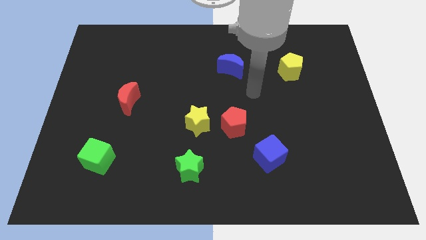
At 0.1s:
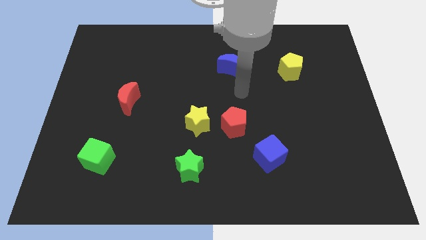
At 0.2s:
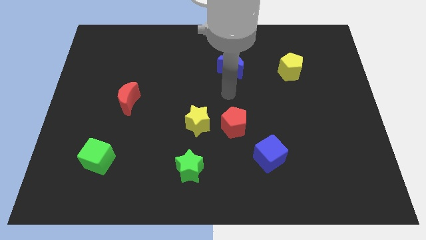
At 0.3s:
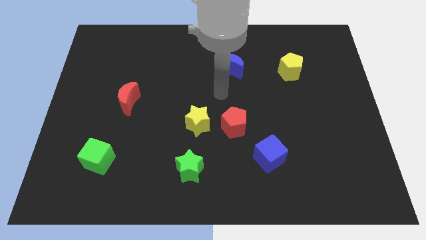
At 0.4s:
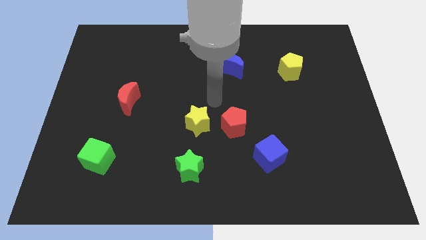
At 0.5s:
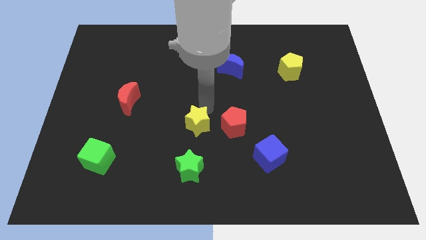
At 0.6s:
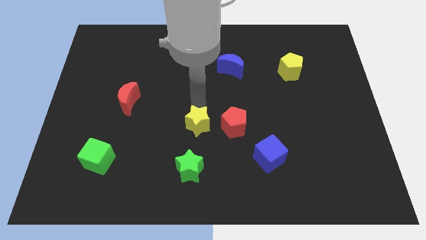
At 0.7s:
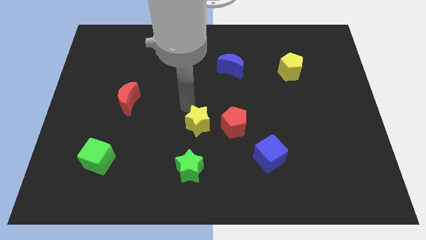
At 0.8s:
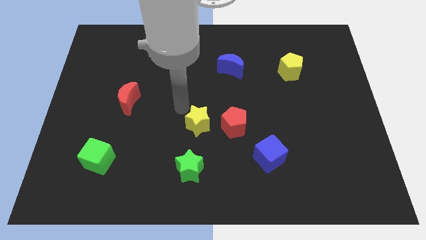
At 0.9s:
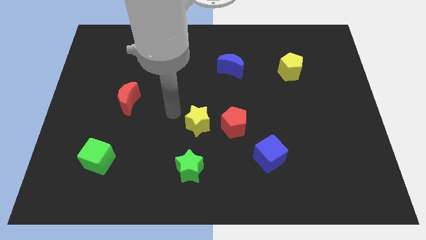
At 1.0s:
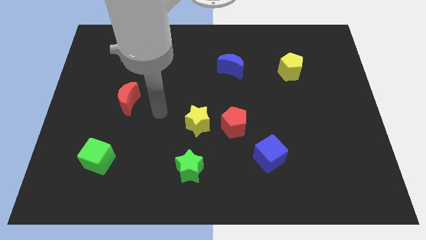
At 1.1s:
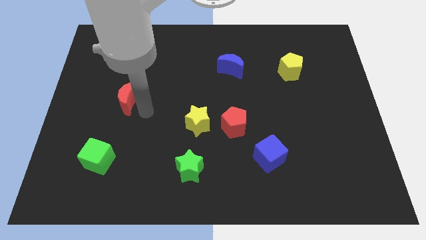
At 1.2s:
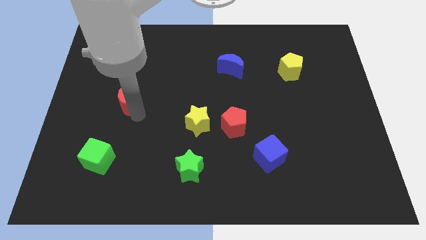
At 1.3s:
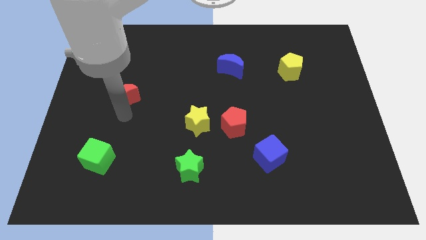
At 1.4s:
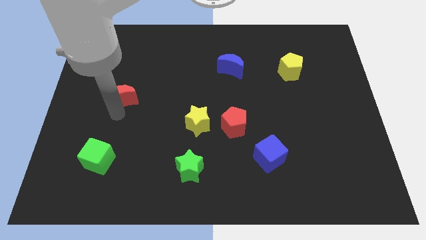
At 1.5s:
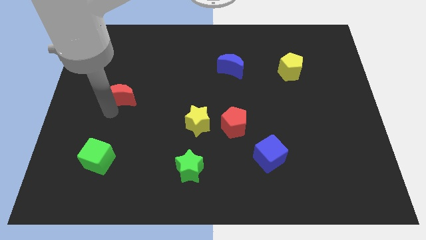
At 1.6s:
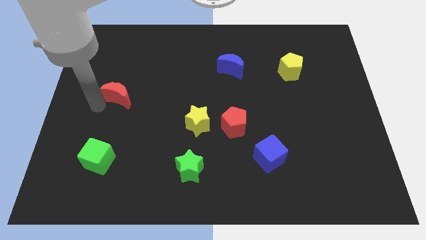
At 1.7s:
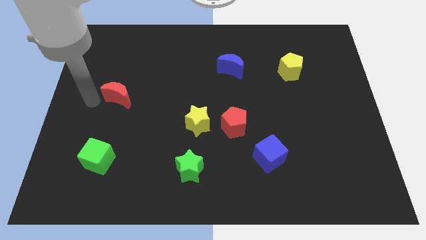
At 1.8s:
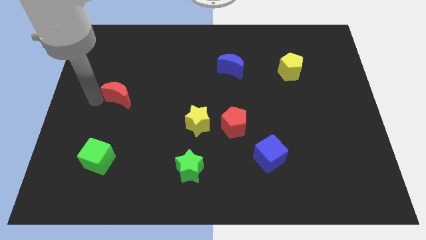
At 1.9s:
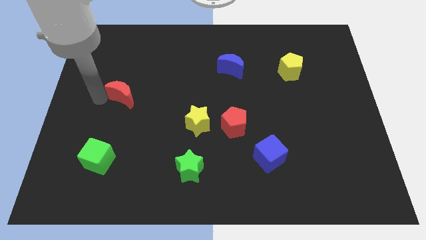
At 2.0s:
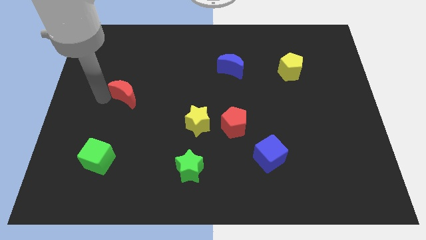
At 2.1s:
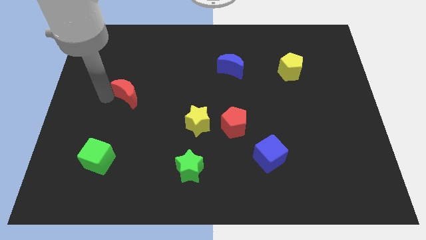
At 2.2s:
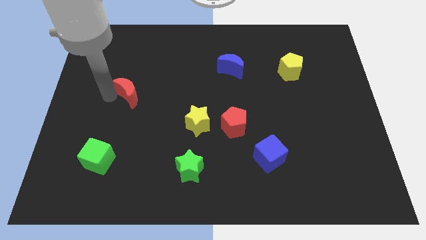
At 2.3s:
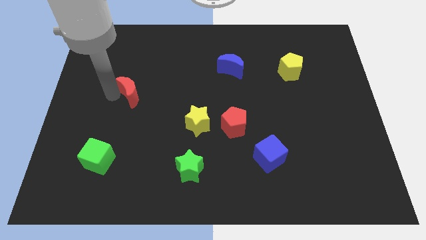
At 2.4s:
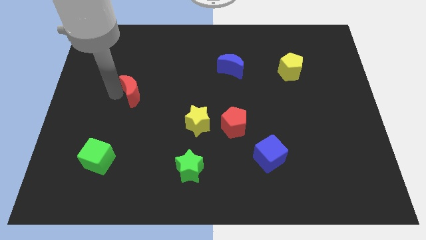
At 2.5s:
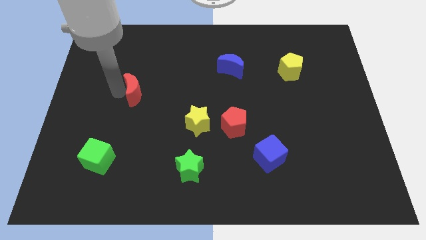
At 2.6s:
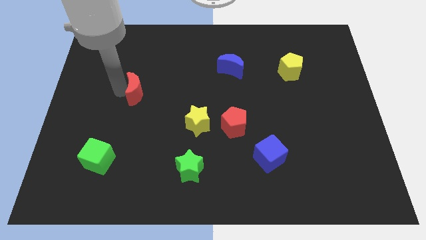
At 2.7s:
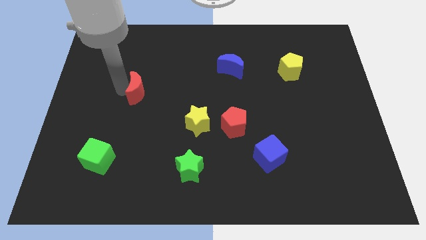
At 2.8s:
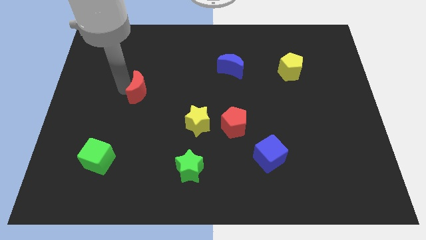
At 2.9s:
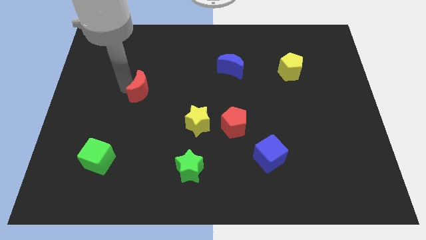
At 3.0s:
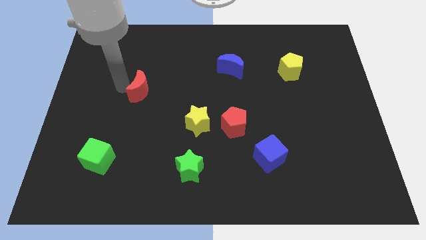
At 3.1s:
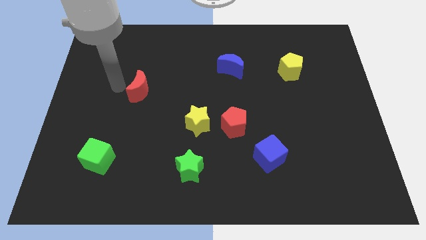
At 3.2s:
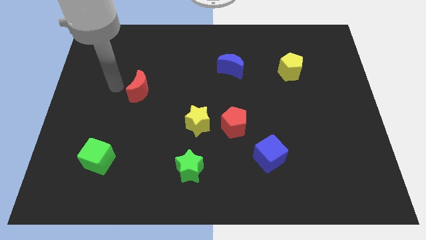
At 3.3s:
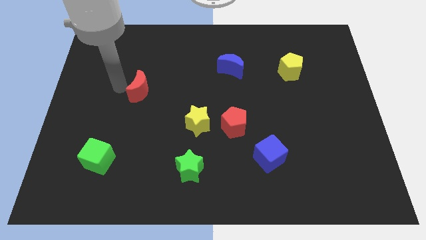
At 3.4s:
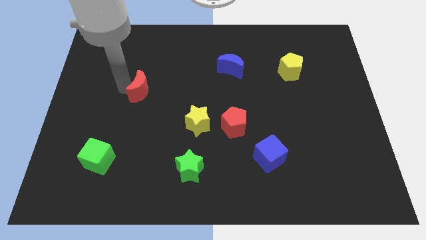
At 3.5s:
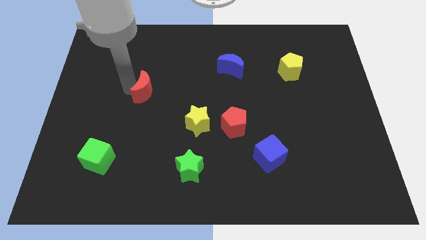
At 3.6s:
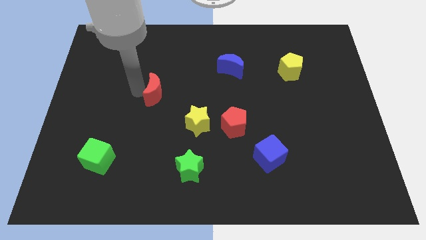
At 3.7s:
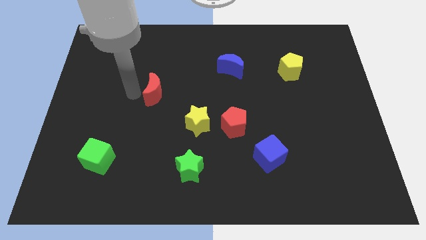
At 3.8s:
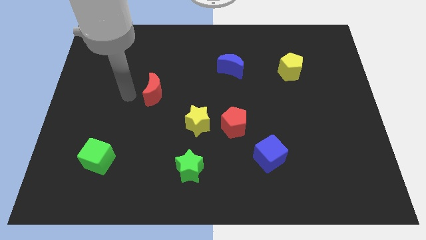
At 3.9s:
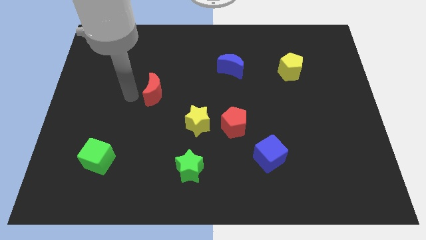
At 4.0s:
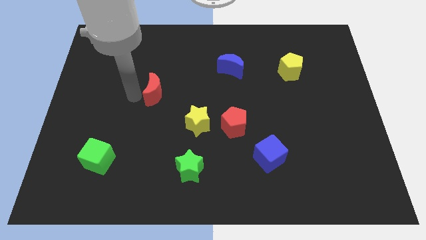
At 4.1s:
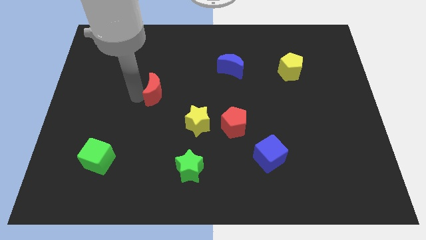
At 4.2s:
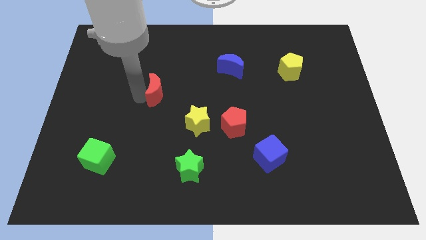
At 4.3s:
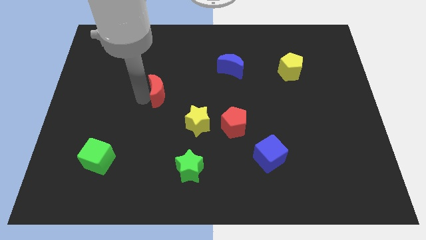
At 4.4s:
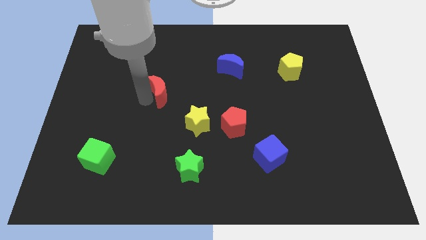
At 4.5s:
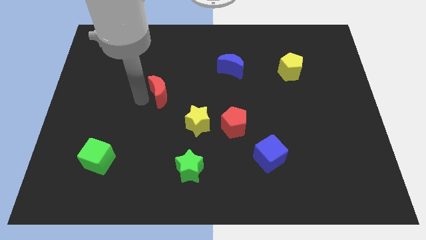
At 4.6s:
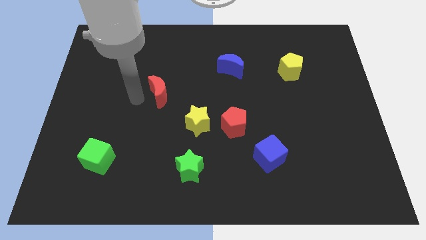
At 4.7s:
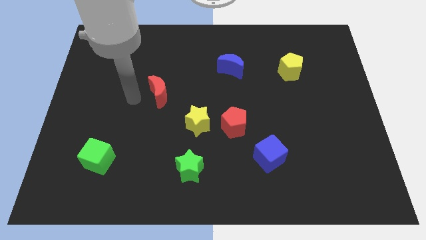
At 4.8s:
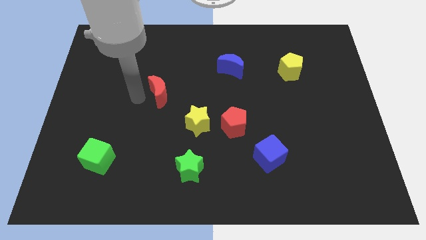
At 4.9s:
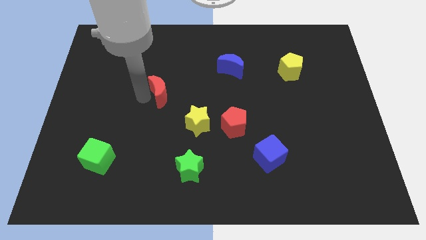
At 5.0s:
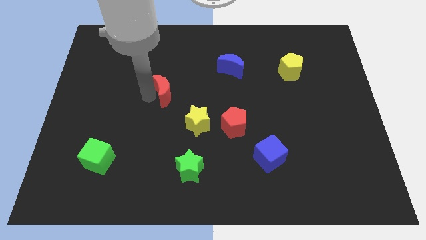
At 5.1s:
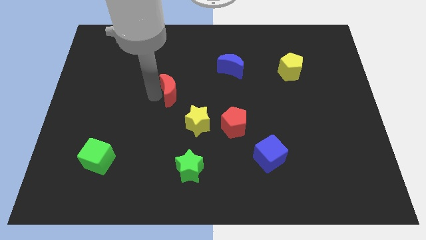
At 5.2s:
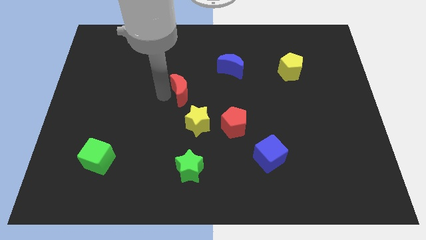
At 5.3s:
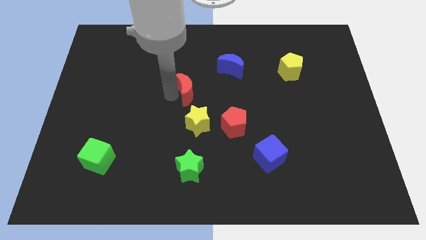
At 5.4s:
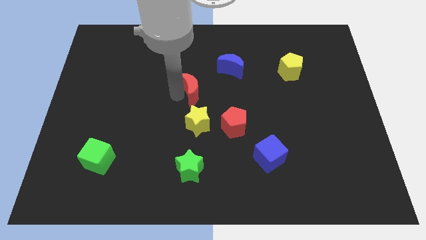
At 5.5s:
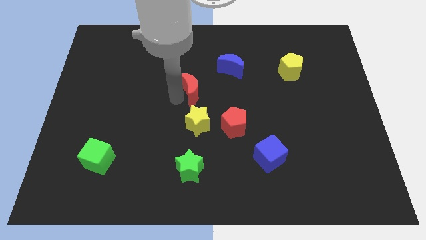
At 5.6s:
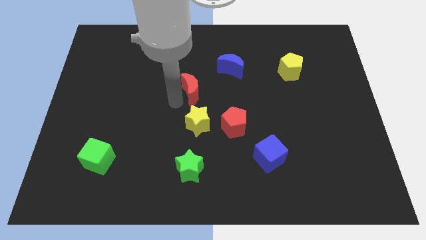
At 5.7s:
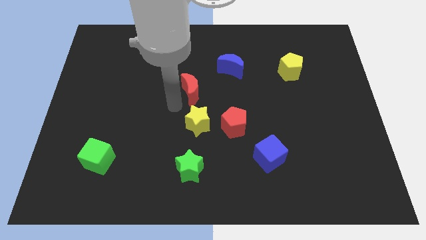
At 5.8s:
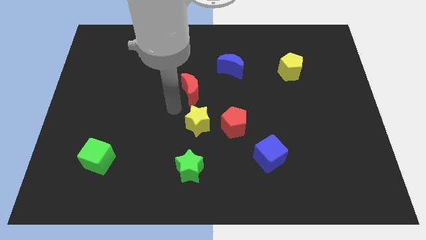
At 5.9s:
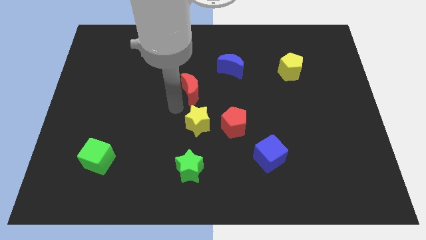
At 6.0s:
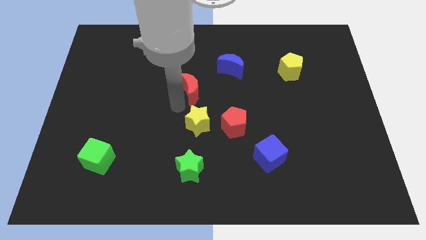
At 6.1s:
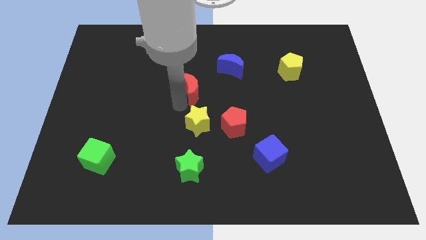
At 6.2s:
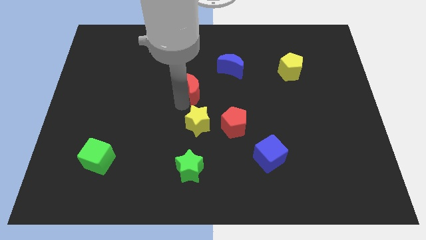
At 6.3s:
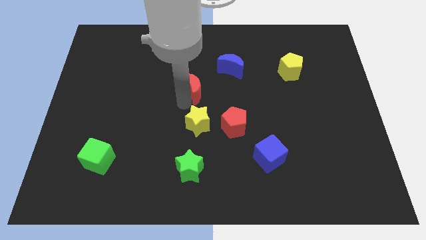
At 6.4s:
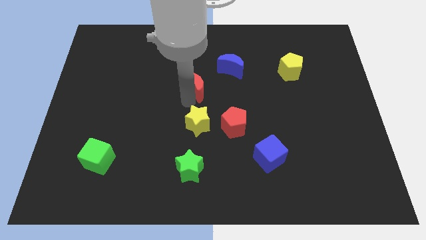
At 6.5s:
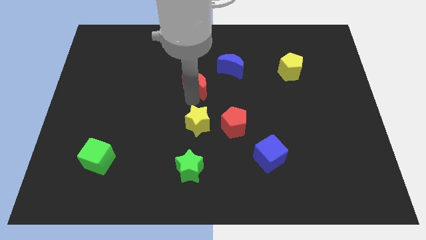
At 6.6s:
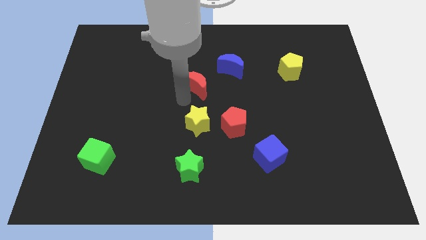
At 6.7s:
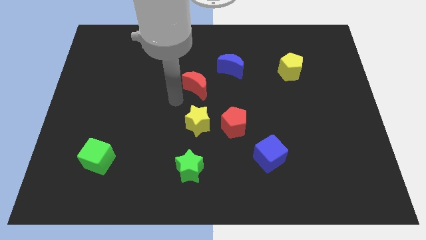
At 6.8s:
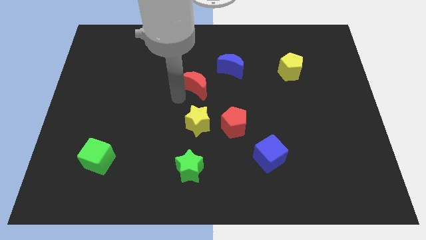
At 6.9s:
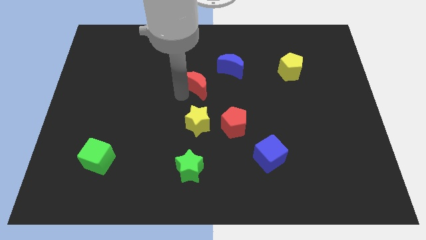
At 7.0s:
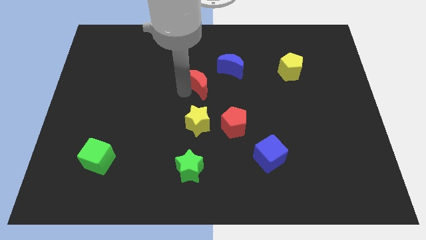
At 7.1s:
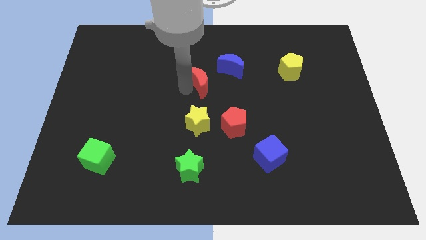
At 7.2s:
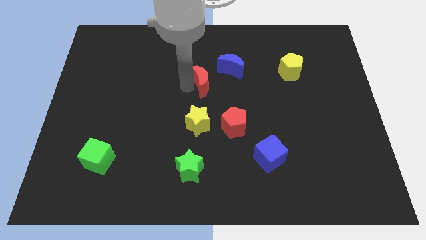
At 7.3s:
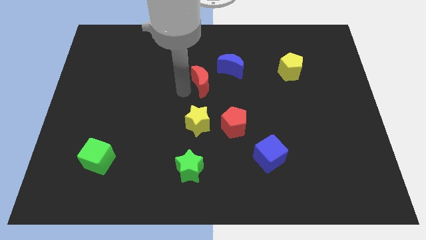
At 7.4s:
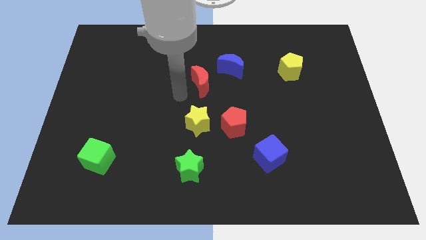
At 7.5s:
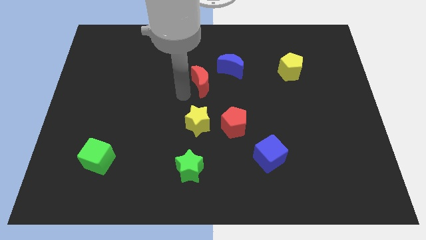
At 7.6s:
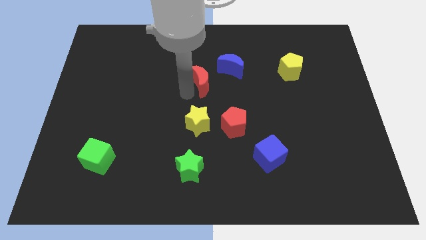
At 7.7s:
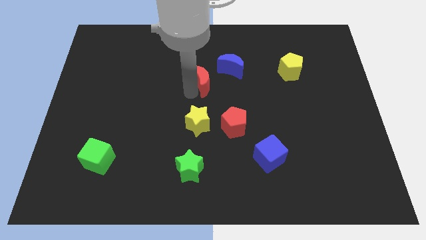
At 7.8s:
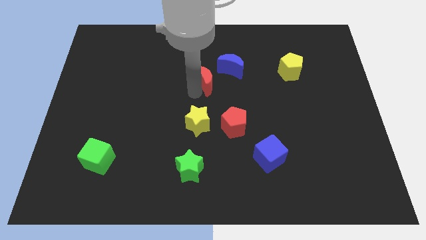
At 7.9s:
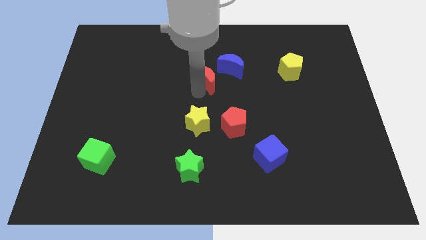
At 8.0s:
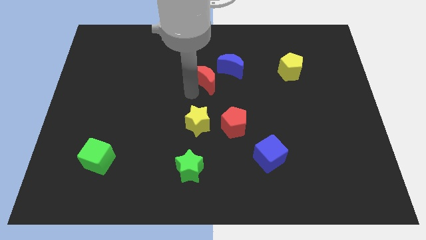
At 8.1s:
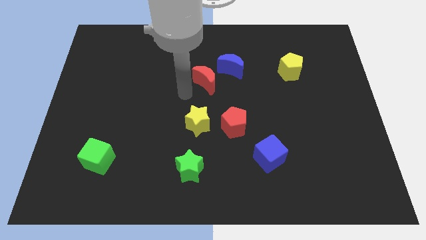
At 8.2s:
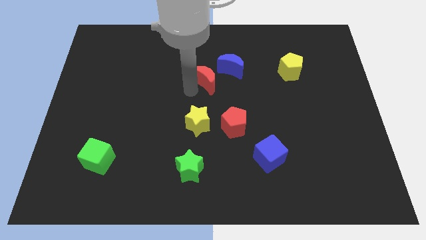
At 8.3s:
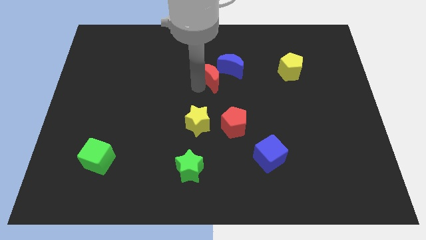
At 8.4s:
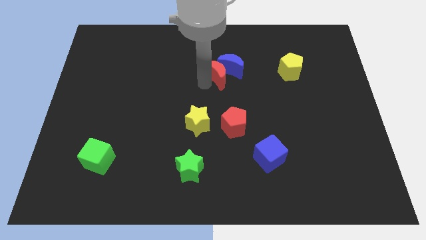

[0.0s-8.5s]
slide the red moon next to the blue moon
